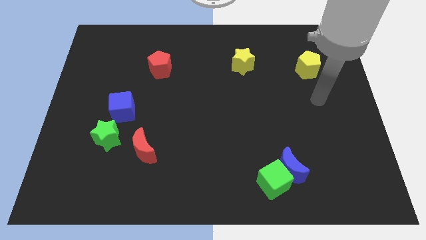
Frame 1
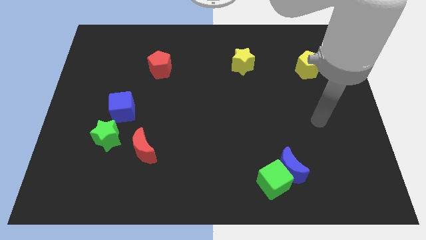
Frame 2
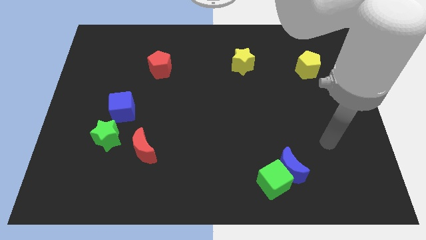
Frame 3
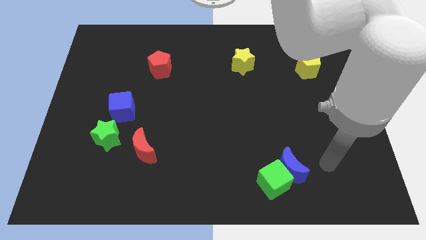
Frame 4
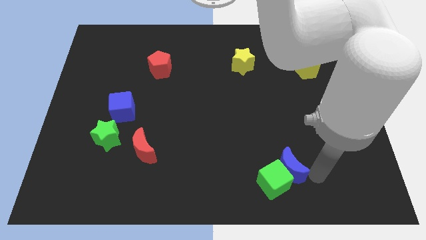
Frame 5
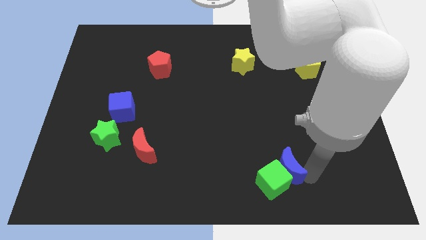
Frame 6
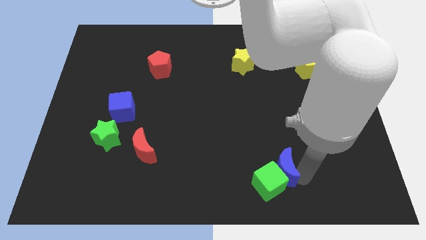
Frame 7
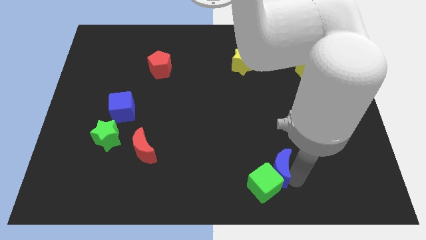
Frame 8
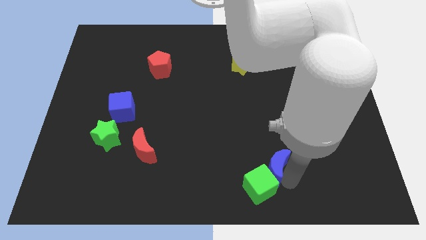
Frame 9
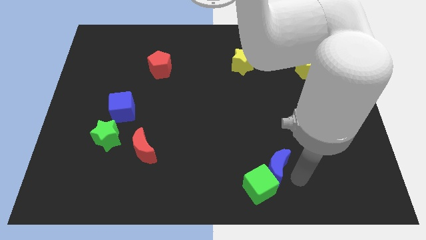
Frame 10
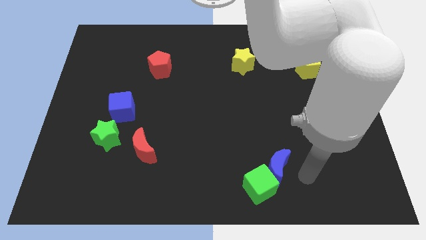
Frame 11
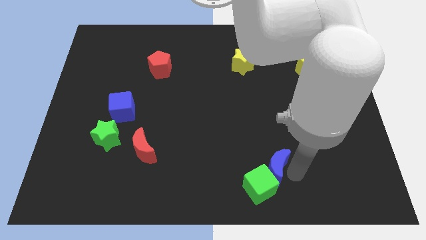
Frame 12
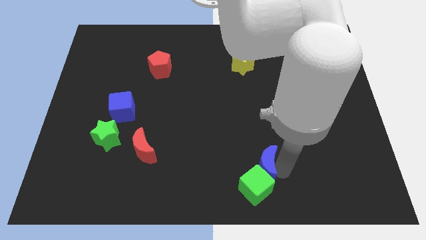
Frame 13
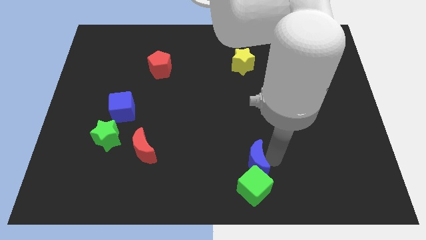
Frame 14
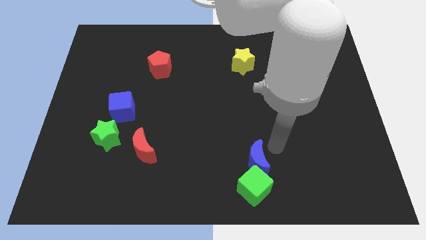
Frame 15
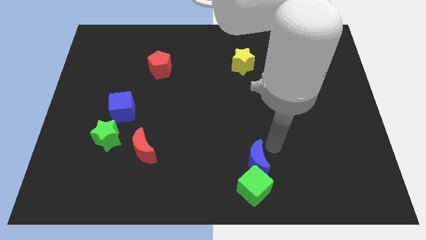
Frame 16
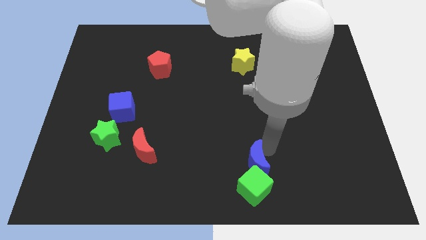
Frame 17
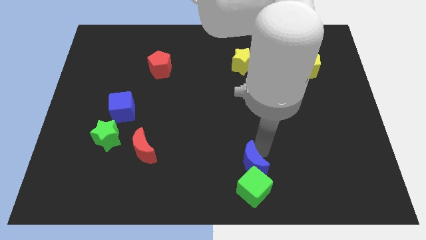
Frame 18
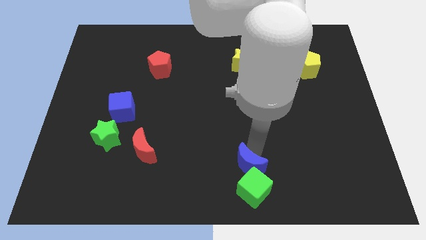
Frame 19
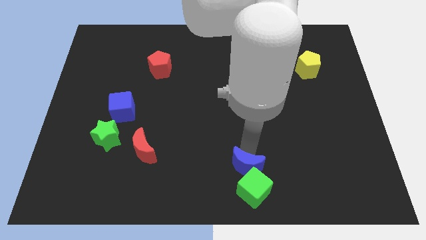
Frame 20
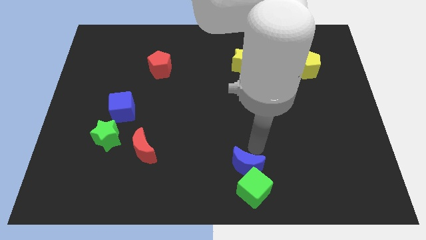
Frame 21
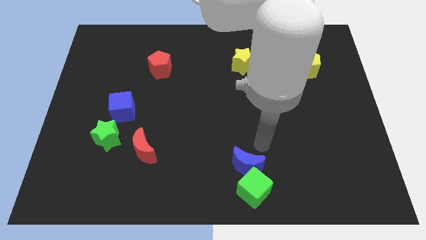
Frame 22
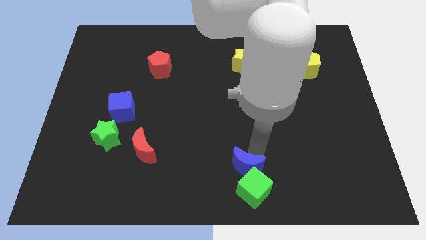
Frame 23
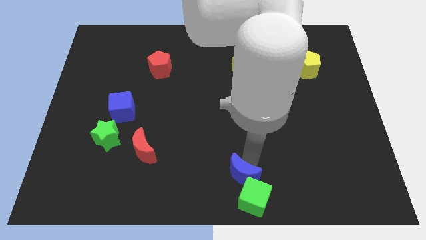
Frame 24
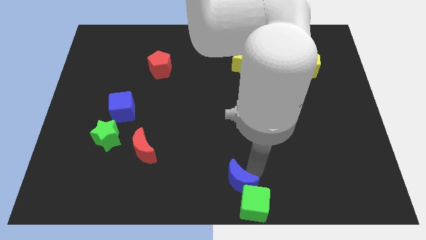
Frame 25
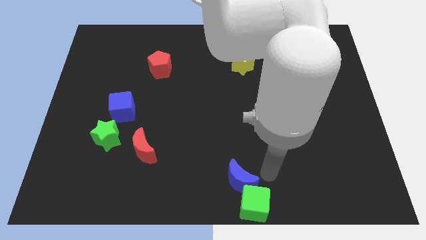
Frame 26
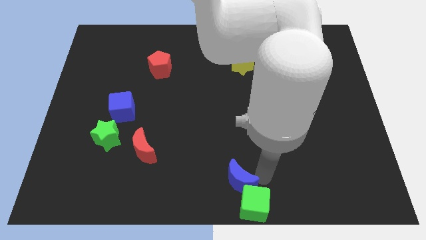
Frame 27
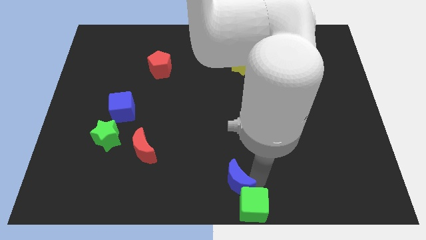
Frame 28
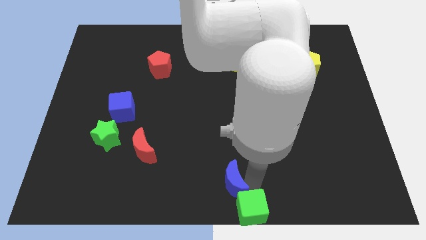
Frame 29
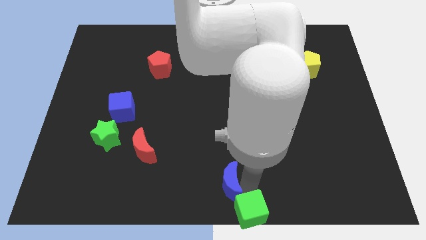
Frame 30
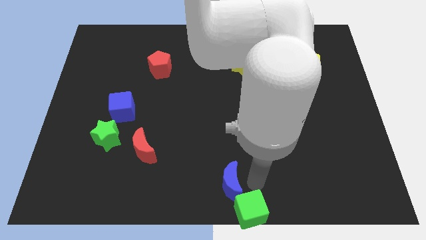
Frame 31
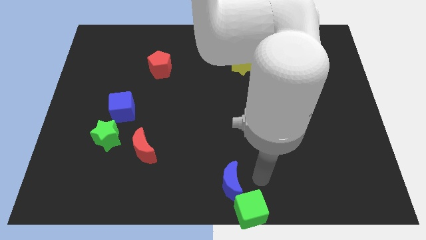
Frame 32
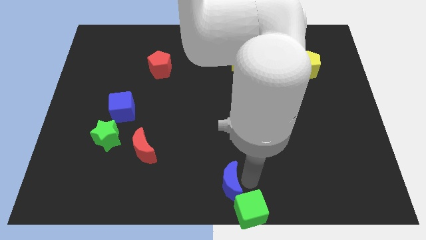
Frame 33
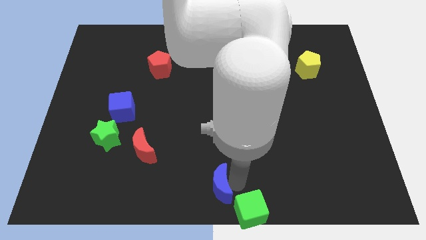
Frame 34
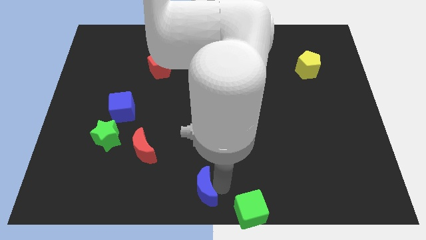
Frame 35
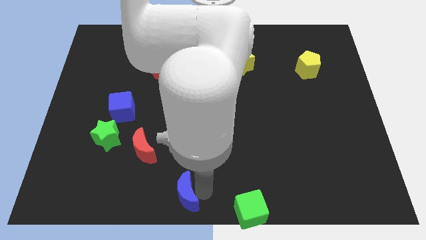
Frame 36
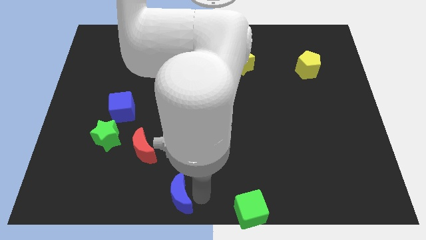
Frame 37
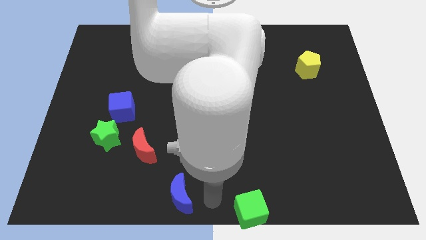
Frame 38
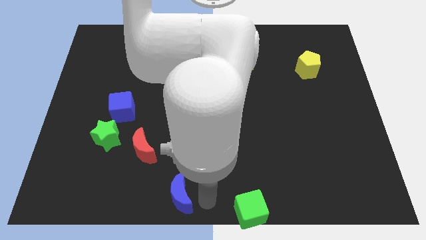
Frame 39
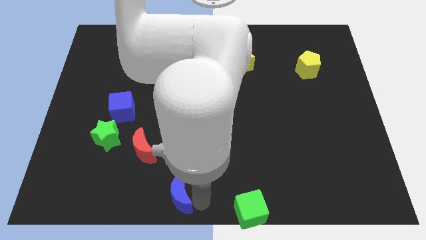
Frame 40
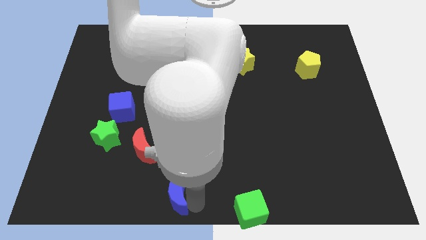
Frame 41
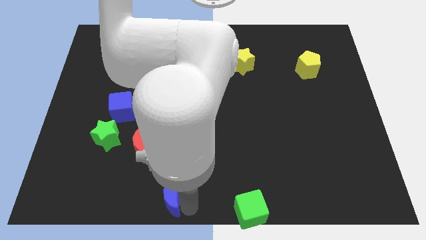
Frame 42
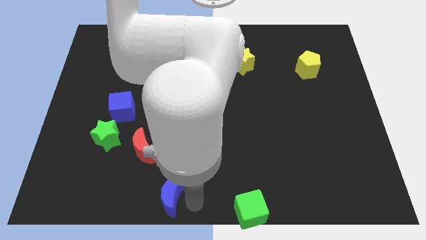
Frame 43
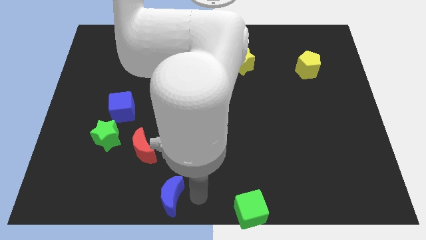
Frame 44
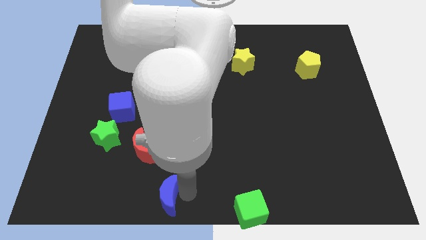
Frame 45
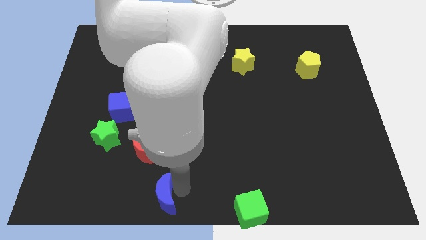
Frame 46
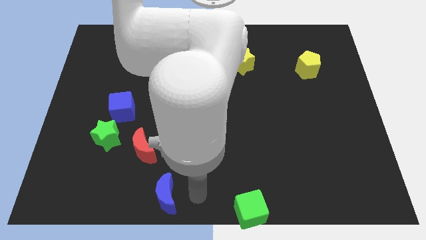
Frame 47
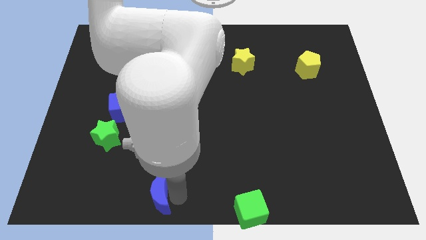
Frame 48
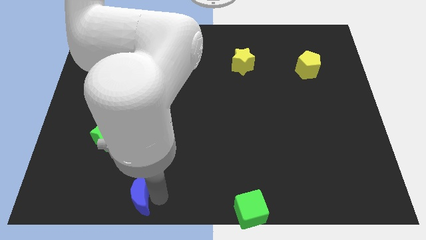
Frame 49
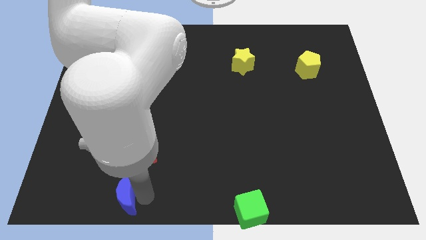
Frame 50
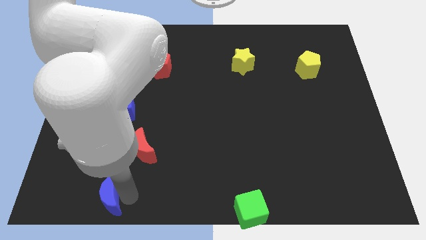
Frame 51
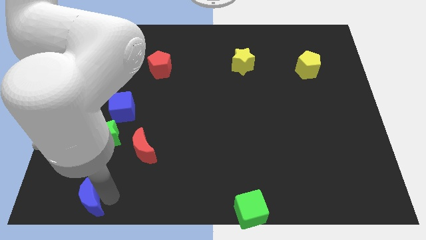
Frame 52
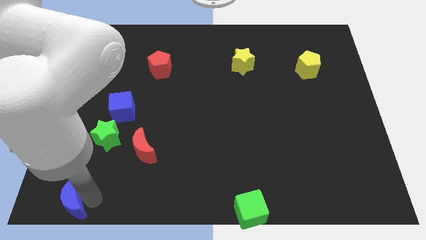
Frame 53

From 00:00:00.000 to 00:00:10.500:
move the blue moon to the lower left corner

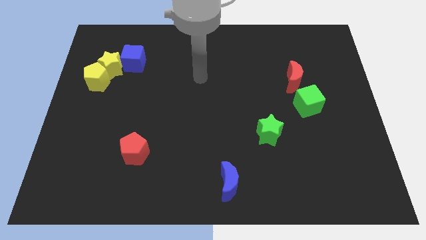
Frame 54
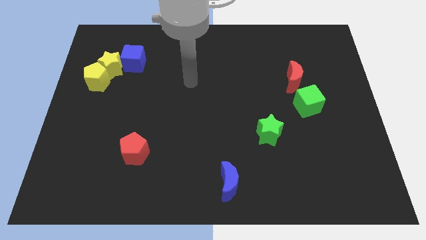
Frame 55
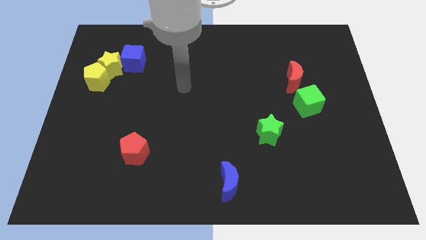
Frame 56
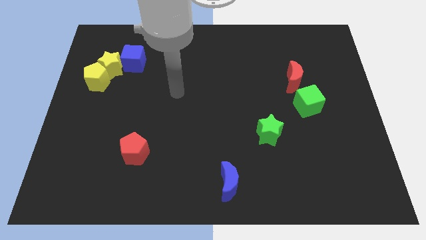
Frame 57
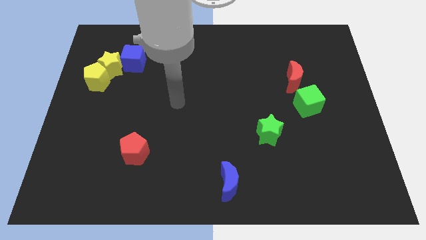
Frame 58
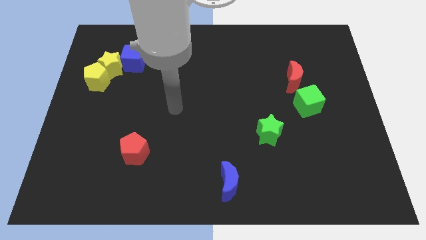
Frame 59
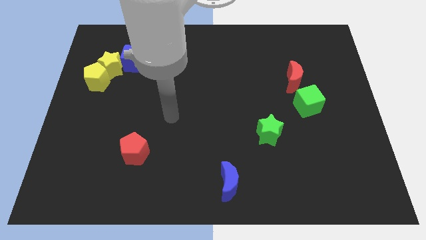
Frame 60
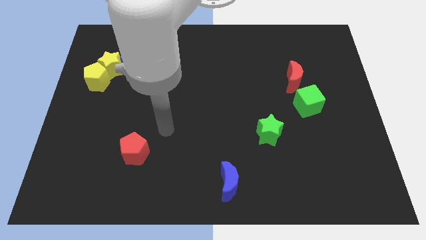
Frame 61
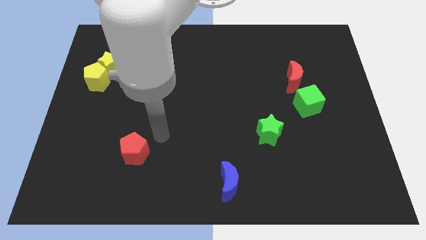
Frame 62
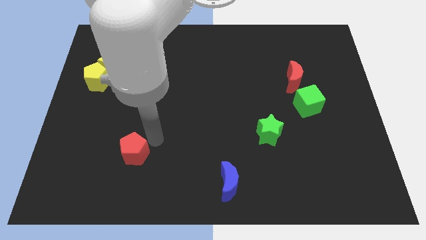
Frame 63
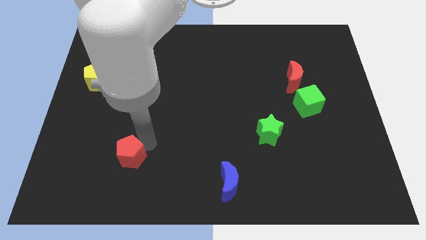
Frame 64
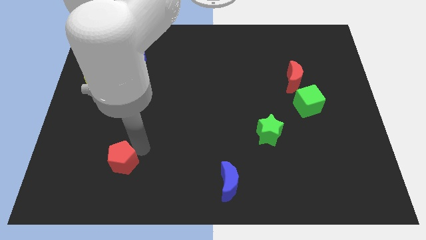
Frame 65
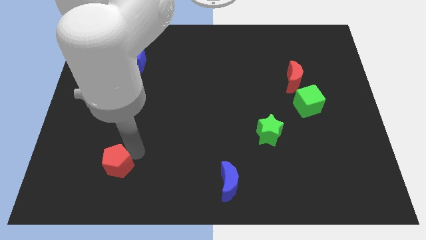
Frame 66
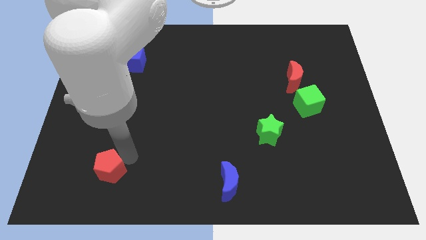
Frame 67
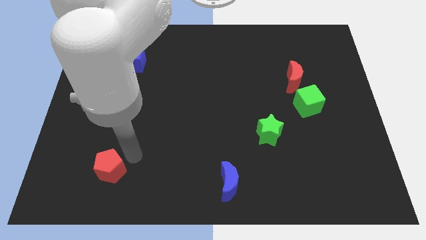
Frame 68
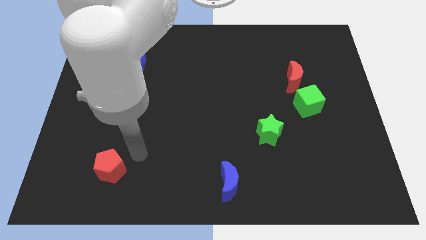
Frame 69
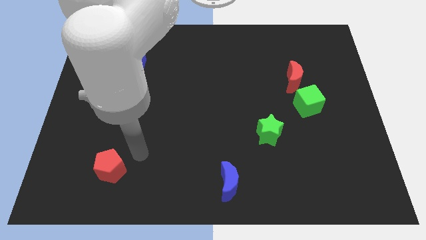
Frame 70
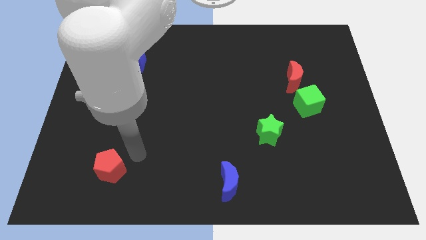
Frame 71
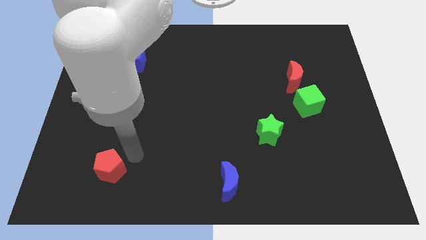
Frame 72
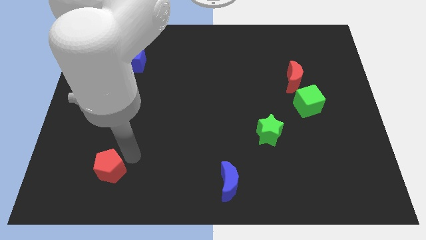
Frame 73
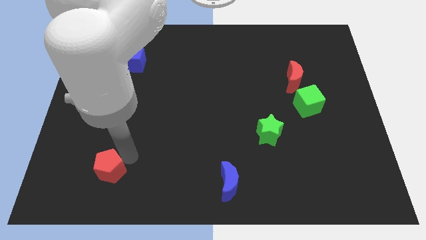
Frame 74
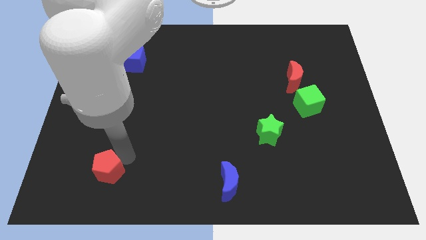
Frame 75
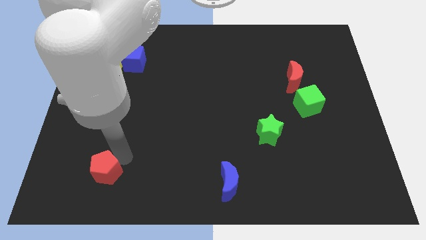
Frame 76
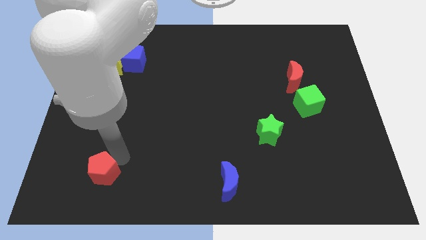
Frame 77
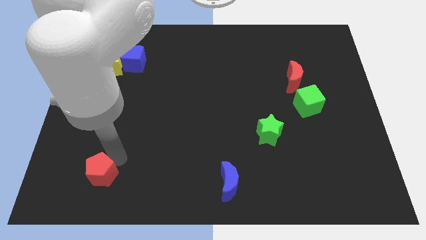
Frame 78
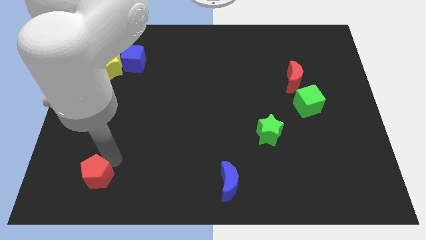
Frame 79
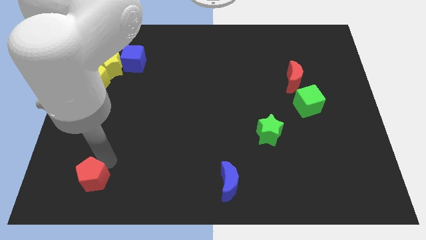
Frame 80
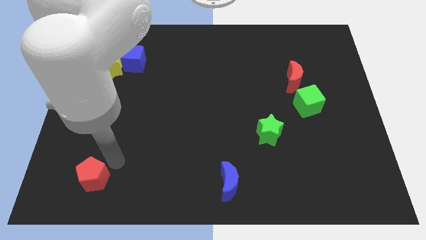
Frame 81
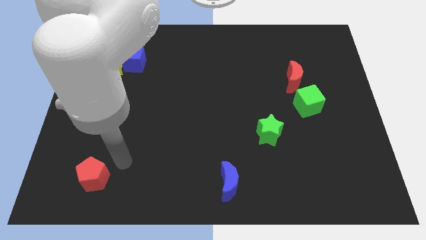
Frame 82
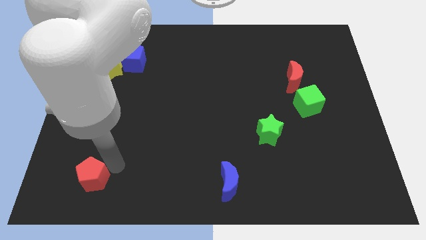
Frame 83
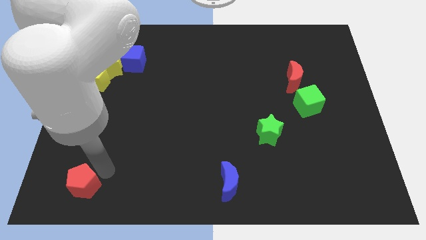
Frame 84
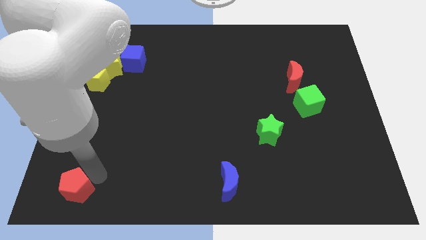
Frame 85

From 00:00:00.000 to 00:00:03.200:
push the red pentagon to the bottom left corner
